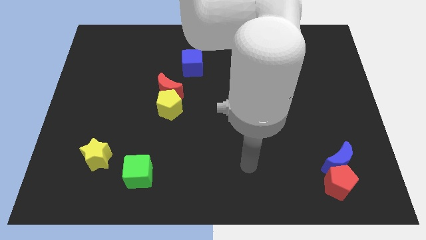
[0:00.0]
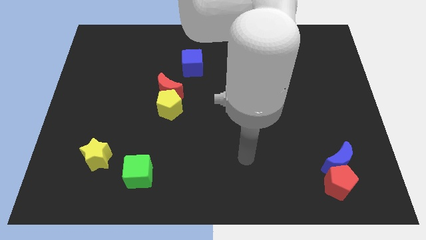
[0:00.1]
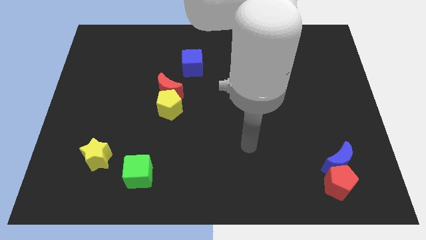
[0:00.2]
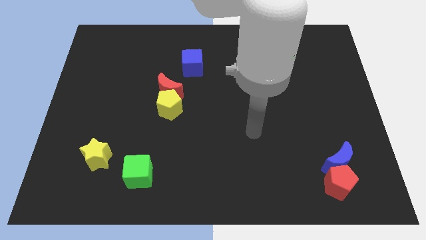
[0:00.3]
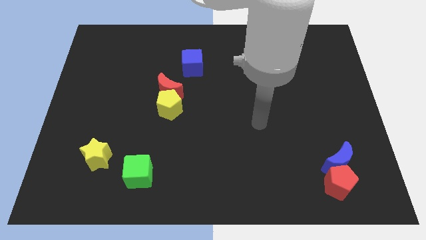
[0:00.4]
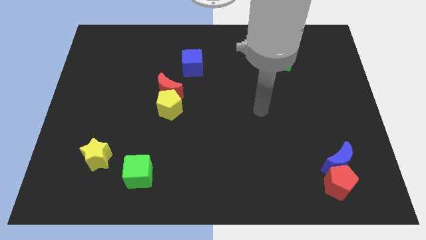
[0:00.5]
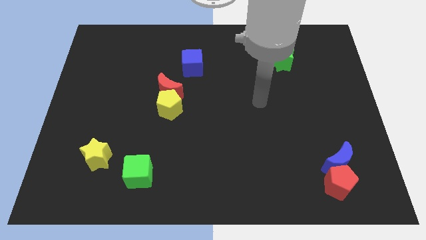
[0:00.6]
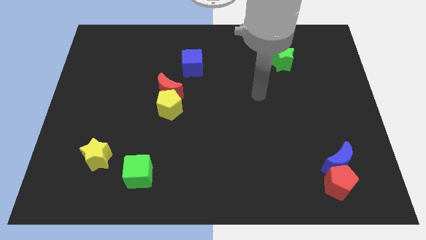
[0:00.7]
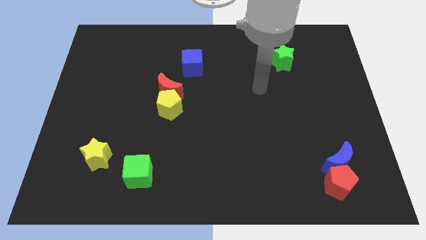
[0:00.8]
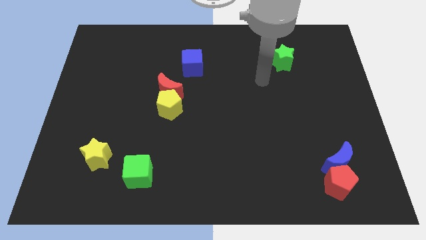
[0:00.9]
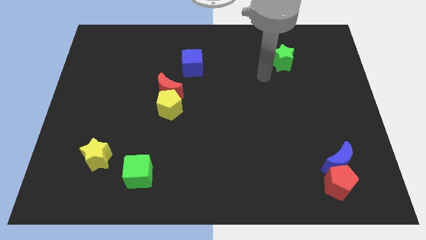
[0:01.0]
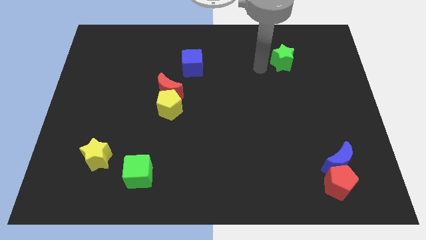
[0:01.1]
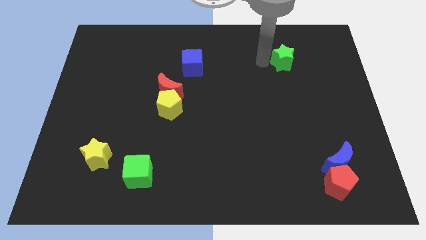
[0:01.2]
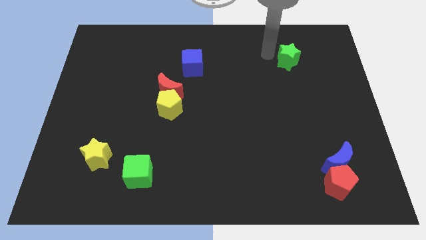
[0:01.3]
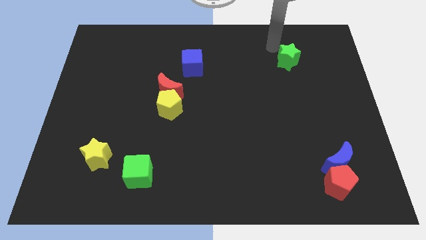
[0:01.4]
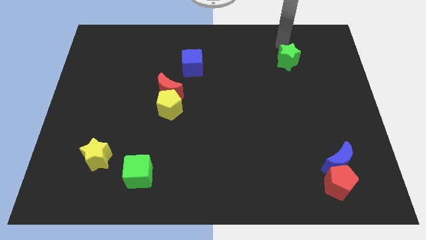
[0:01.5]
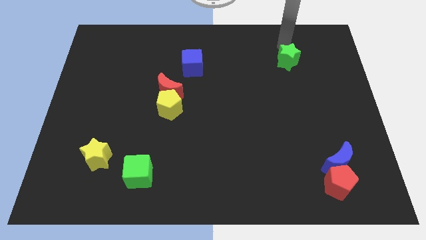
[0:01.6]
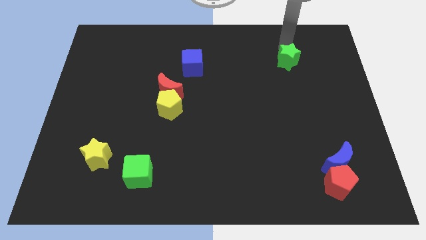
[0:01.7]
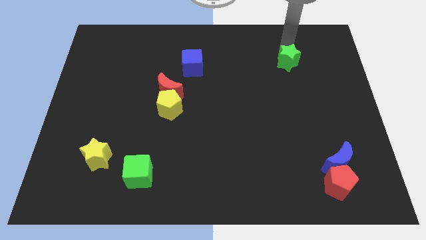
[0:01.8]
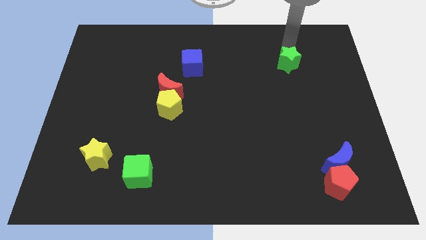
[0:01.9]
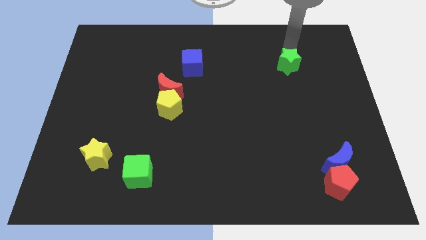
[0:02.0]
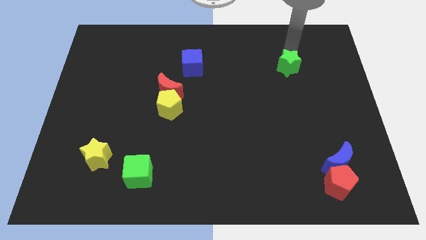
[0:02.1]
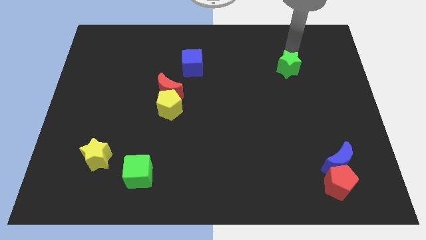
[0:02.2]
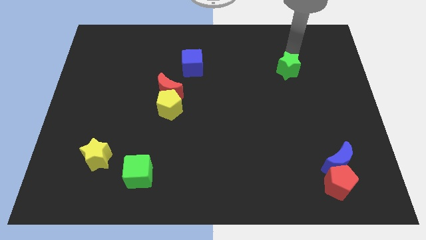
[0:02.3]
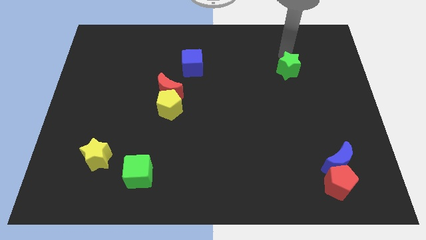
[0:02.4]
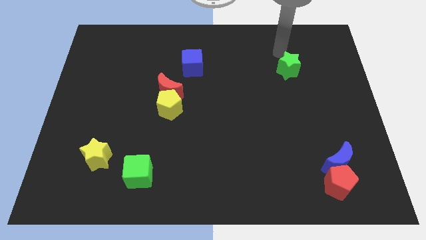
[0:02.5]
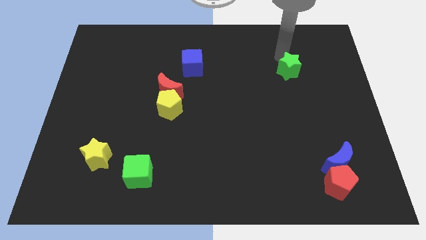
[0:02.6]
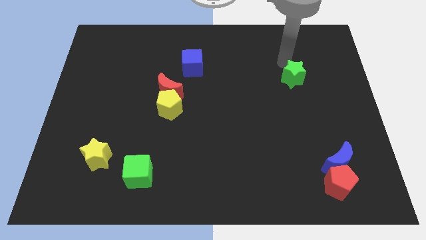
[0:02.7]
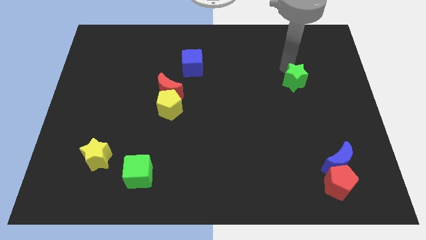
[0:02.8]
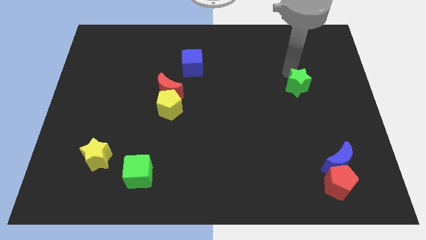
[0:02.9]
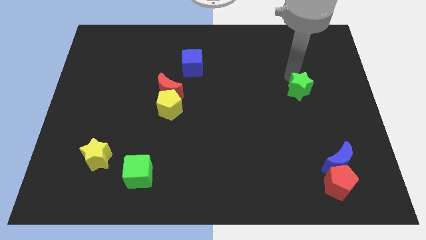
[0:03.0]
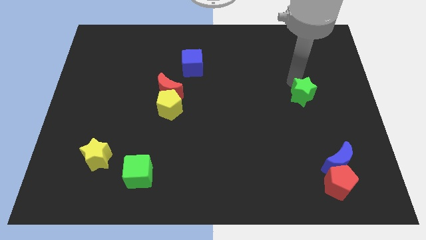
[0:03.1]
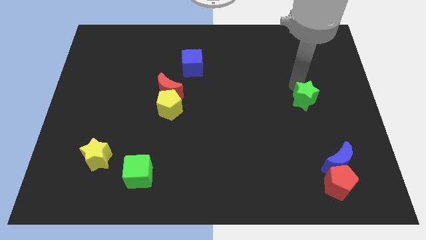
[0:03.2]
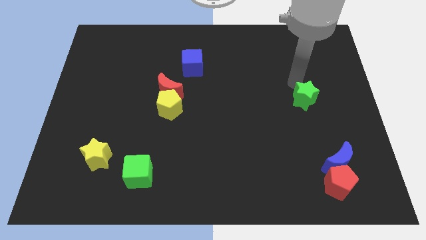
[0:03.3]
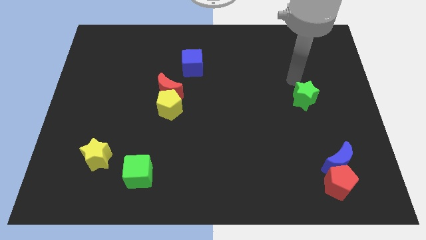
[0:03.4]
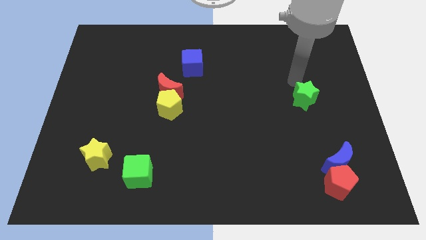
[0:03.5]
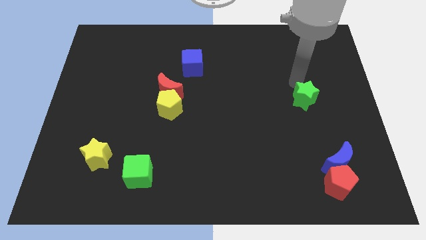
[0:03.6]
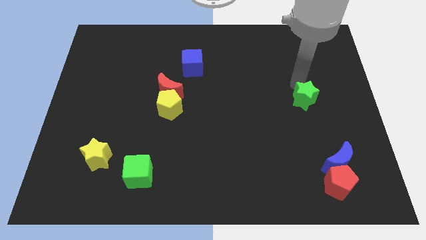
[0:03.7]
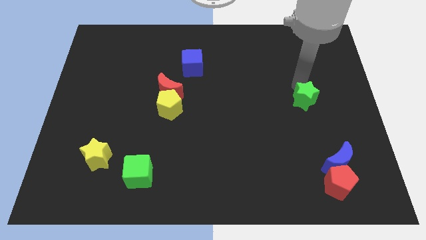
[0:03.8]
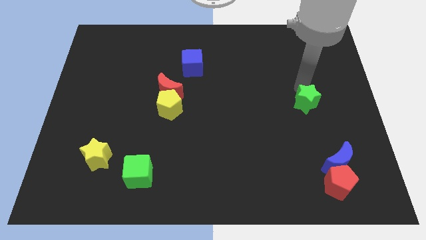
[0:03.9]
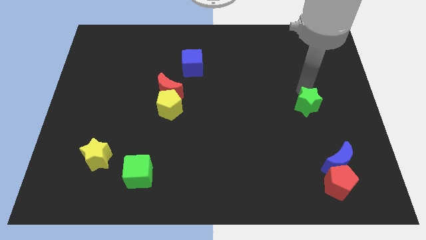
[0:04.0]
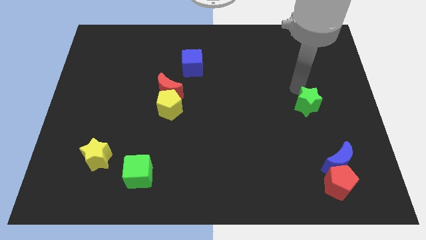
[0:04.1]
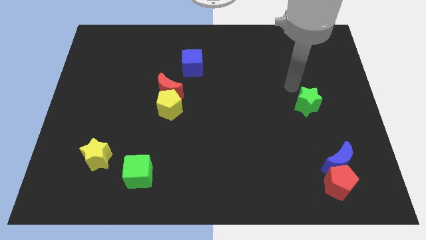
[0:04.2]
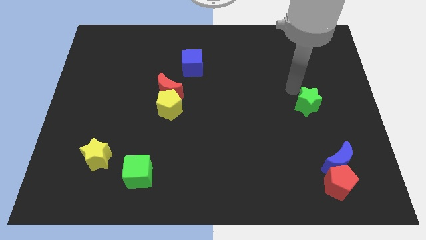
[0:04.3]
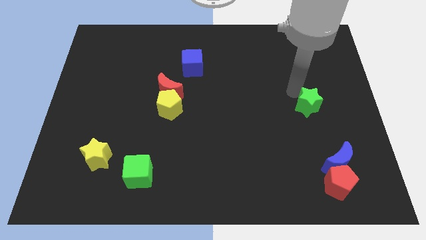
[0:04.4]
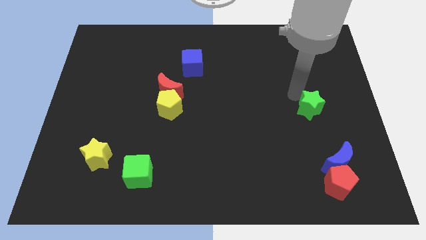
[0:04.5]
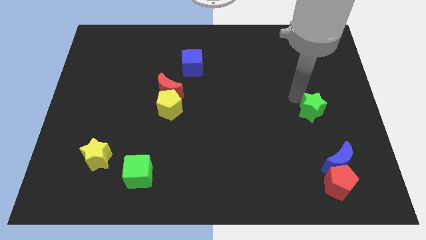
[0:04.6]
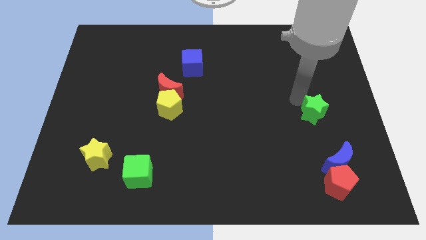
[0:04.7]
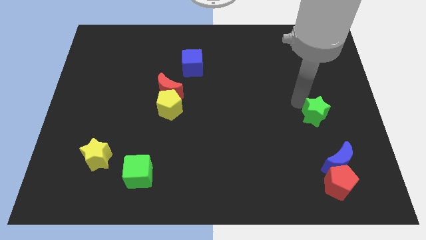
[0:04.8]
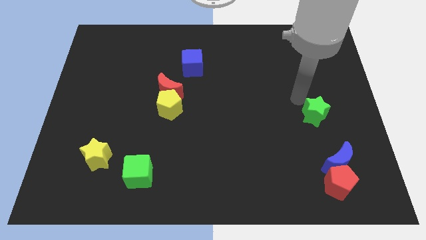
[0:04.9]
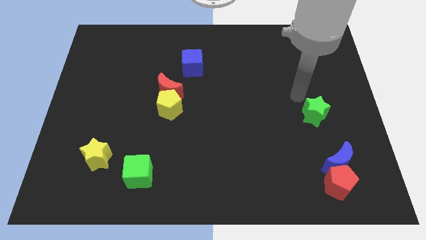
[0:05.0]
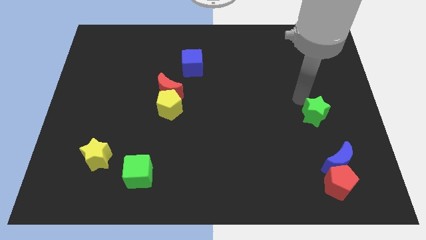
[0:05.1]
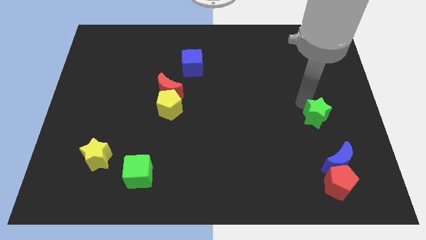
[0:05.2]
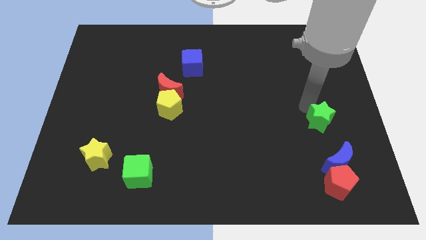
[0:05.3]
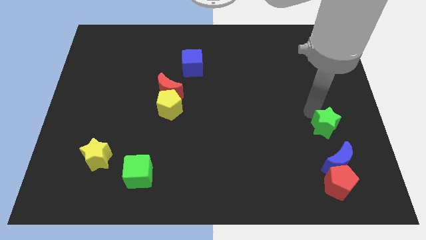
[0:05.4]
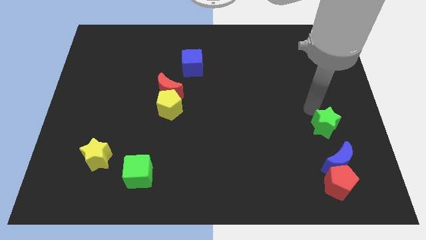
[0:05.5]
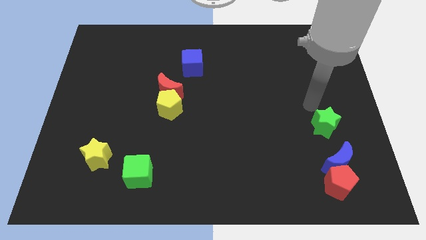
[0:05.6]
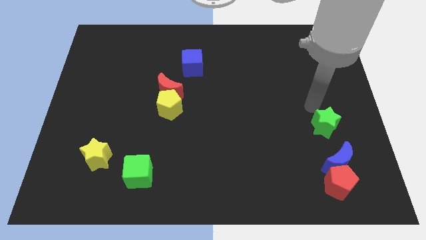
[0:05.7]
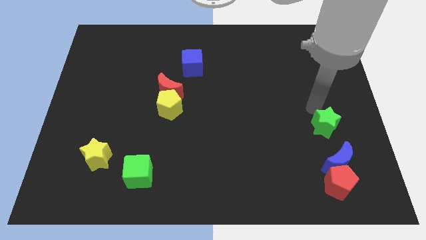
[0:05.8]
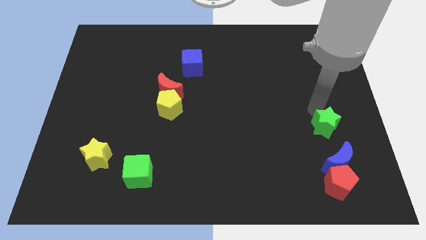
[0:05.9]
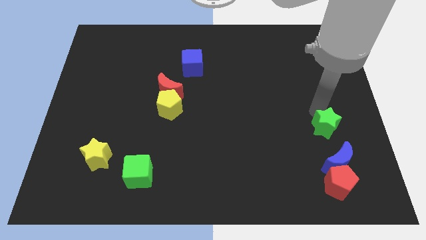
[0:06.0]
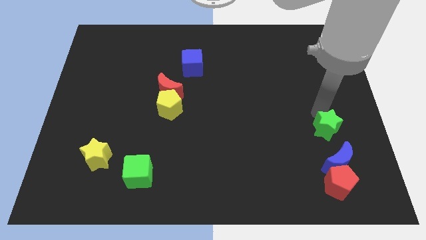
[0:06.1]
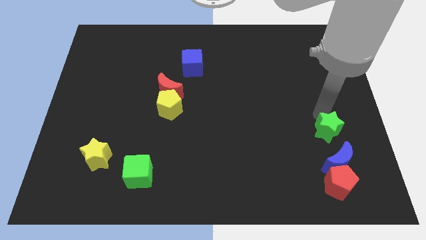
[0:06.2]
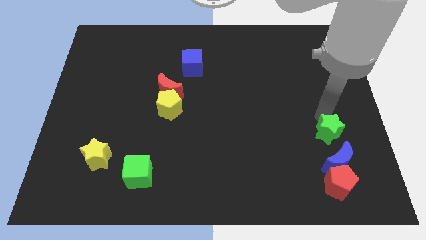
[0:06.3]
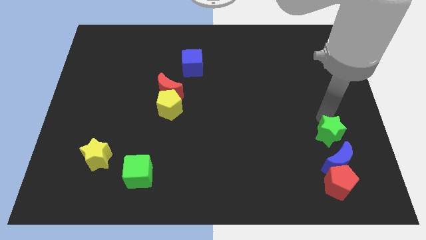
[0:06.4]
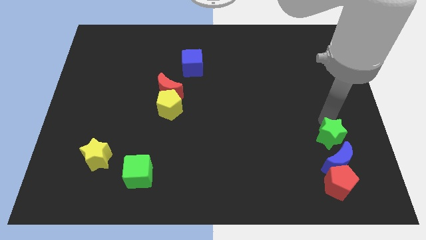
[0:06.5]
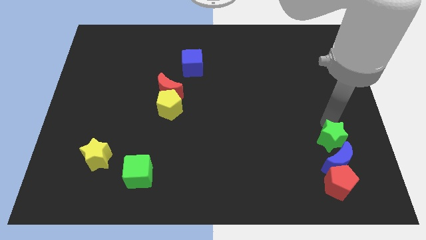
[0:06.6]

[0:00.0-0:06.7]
put the green star close to the blue moon

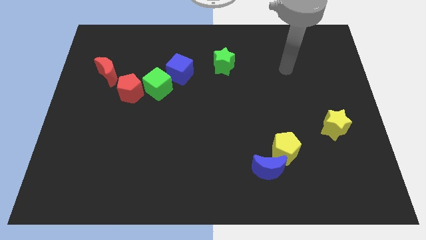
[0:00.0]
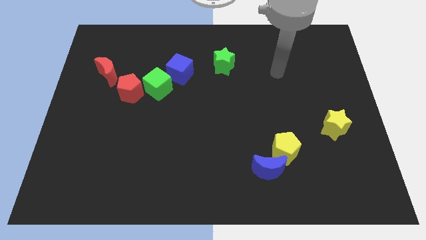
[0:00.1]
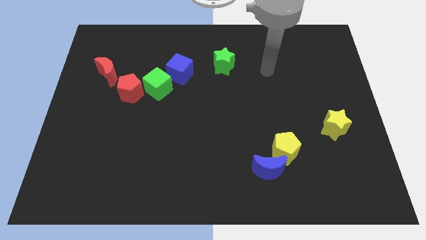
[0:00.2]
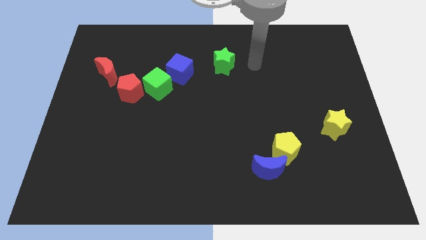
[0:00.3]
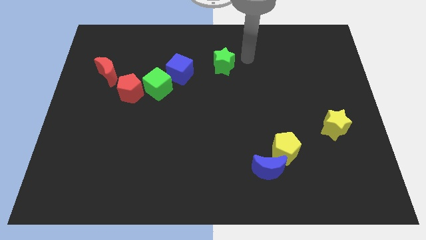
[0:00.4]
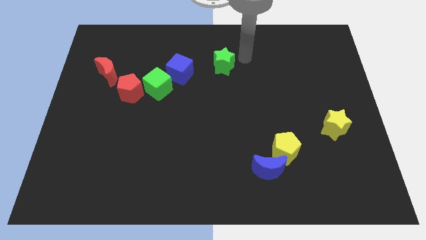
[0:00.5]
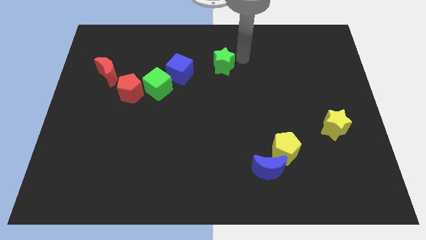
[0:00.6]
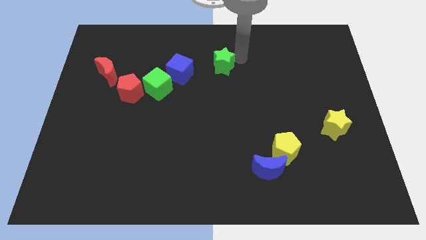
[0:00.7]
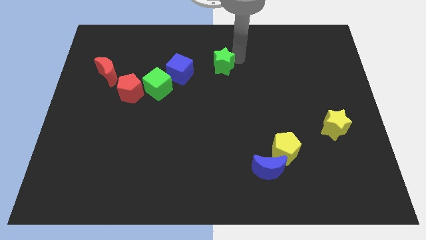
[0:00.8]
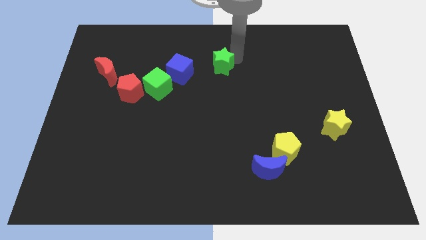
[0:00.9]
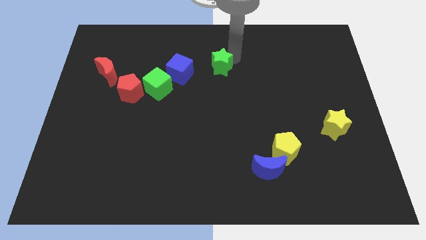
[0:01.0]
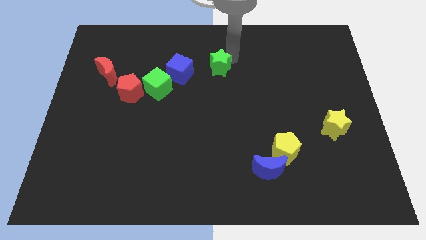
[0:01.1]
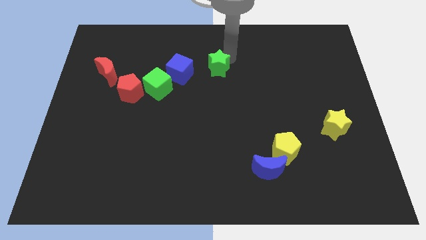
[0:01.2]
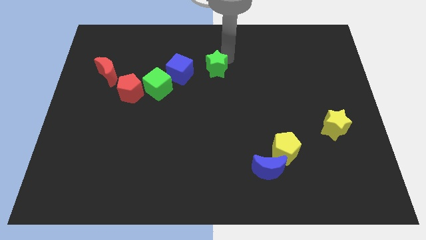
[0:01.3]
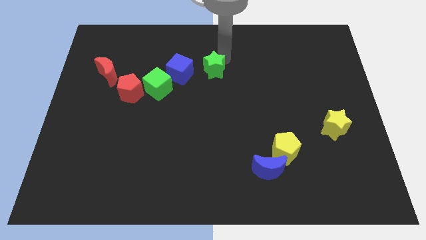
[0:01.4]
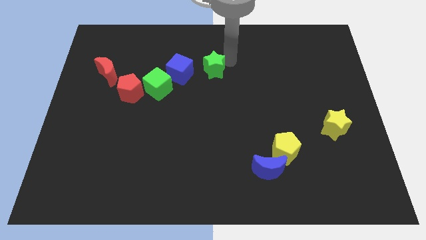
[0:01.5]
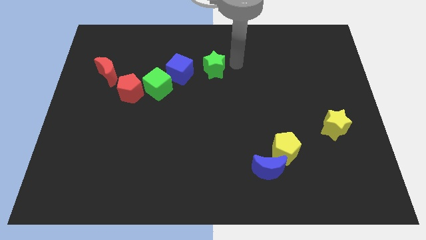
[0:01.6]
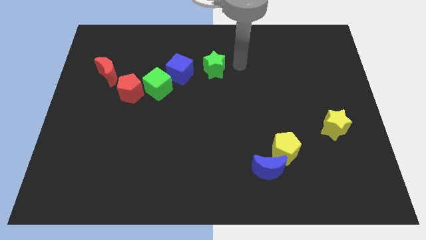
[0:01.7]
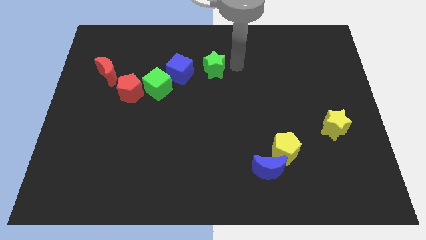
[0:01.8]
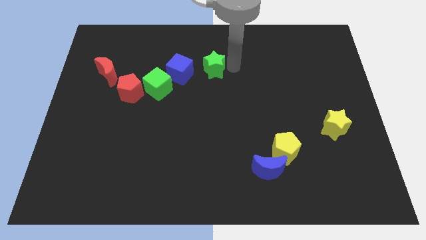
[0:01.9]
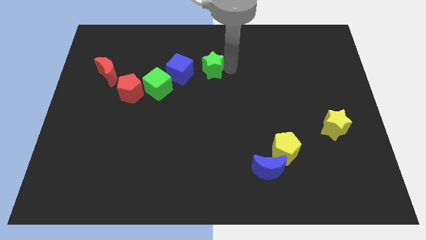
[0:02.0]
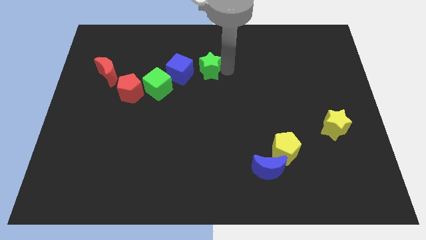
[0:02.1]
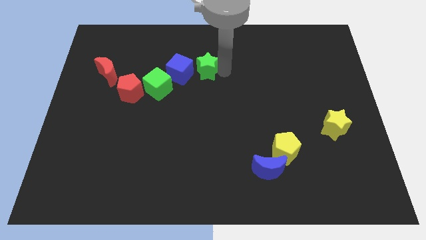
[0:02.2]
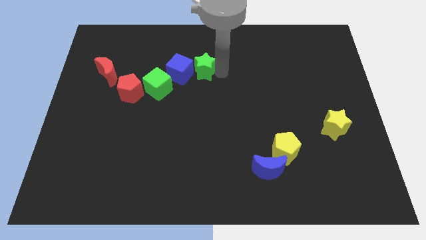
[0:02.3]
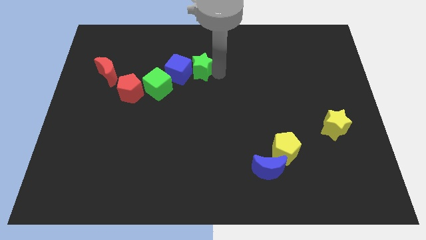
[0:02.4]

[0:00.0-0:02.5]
slide the green star towards the blue cube
